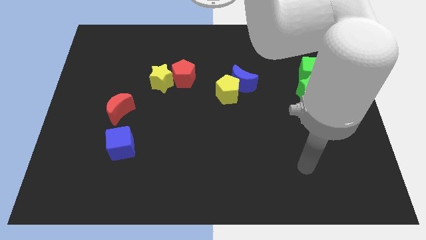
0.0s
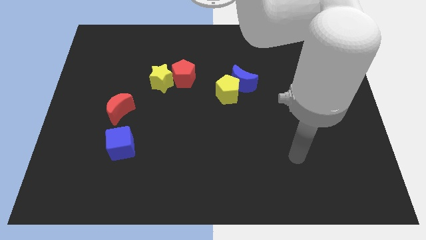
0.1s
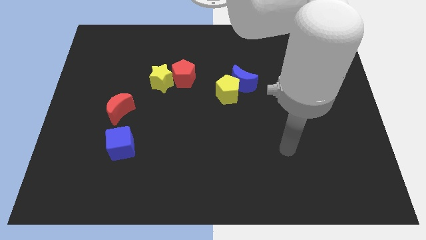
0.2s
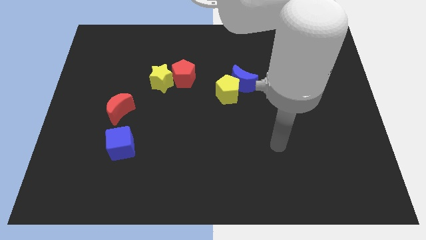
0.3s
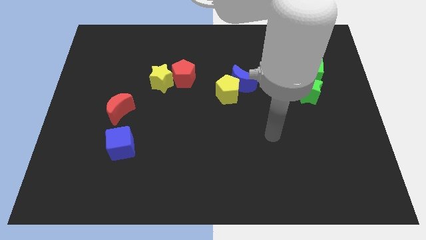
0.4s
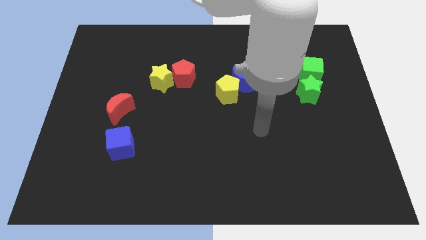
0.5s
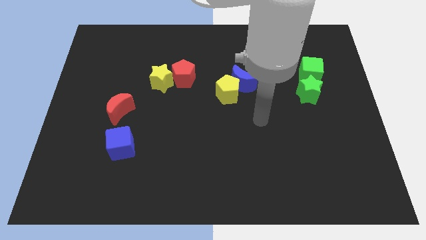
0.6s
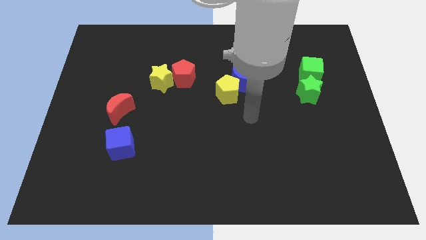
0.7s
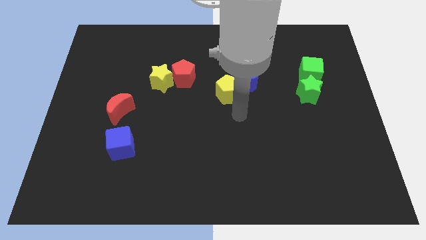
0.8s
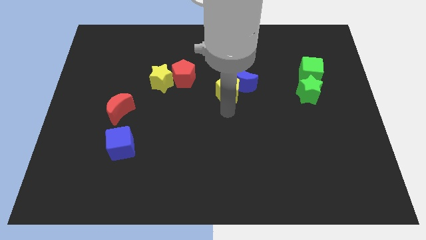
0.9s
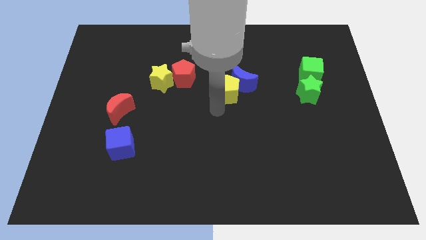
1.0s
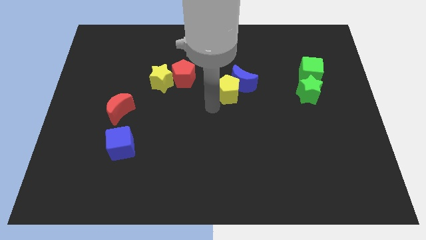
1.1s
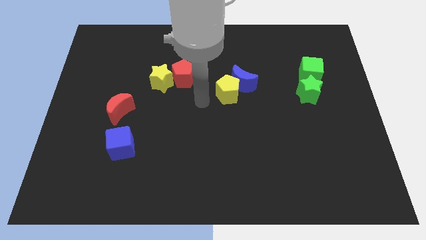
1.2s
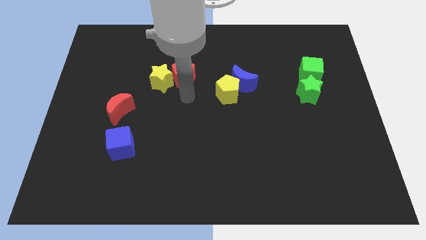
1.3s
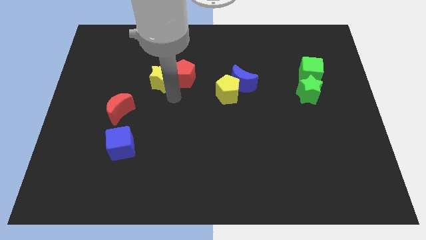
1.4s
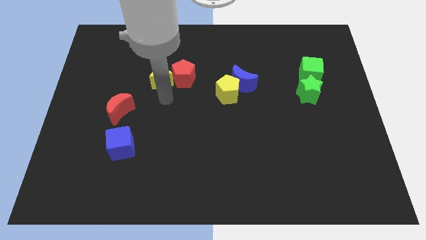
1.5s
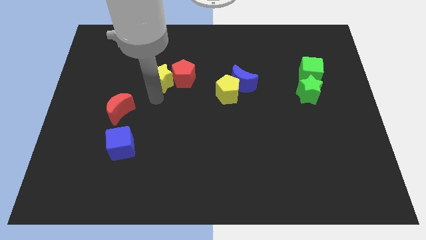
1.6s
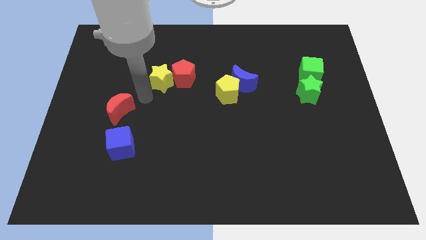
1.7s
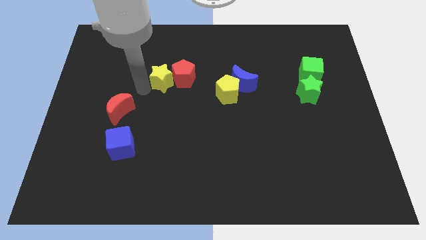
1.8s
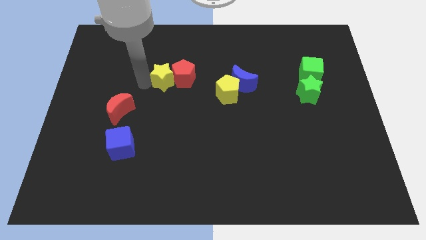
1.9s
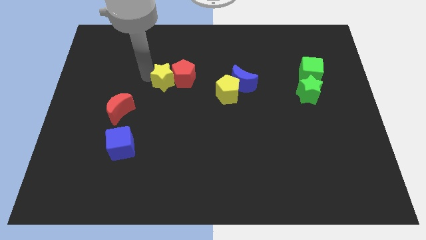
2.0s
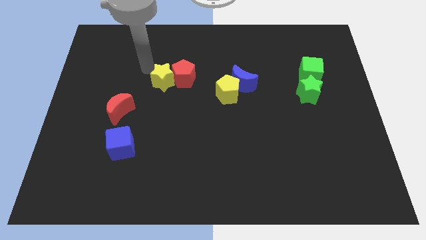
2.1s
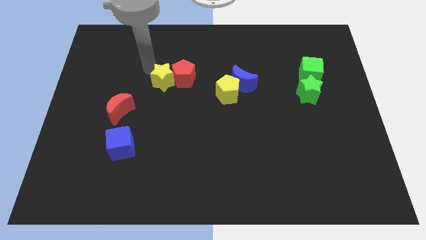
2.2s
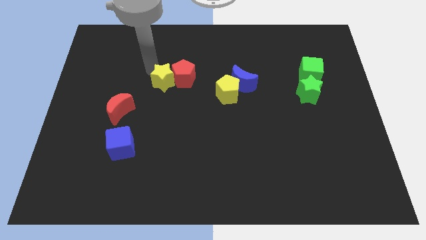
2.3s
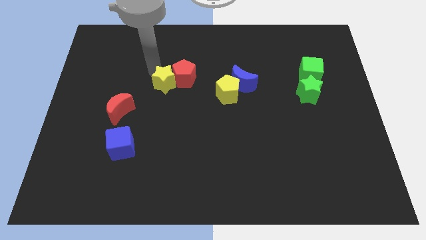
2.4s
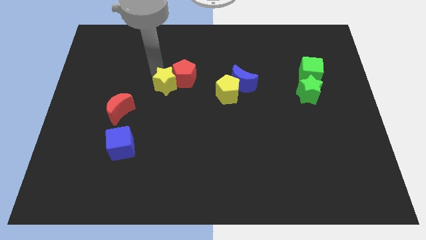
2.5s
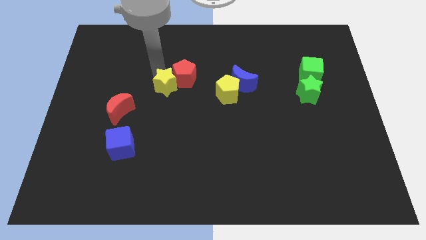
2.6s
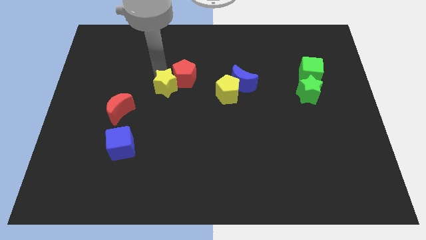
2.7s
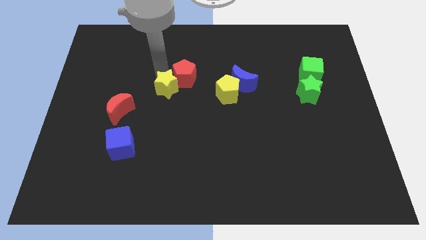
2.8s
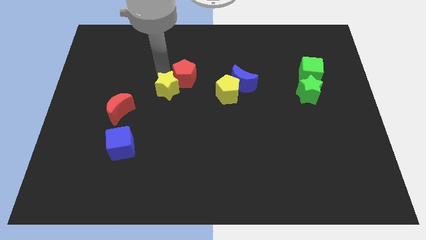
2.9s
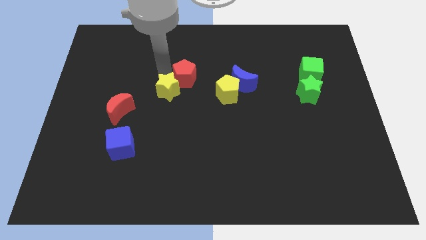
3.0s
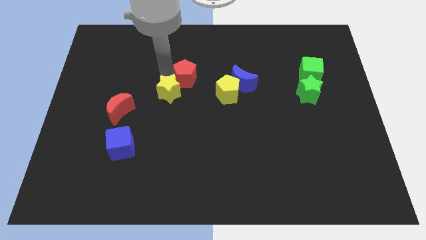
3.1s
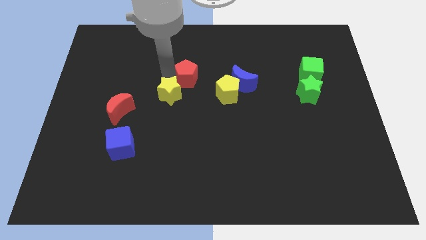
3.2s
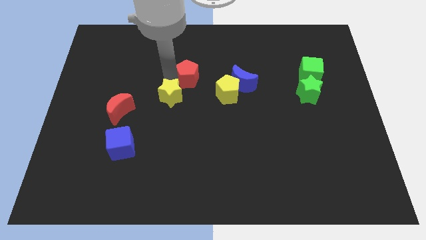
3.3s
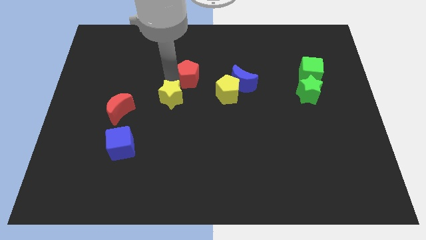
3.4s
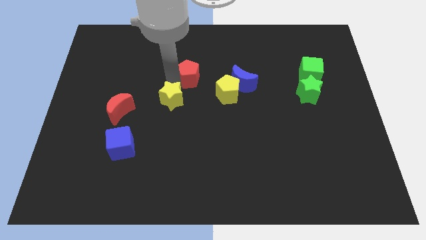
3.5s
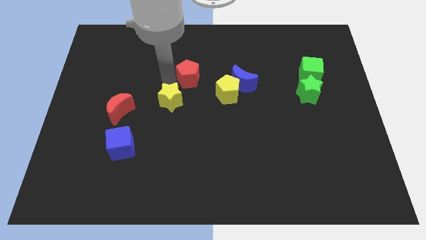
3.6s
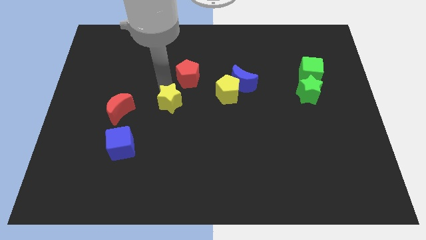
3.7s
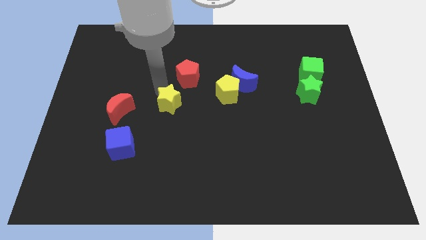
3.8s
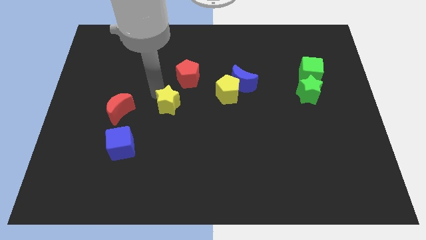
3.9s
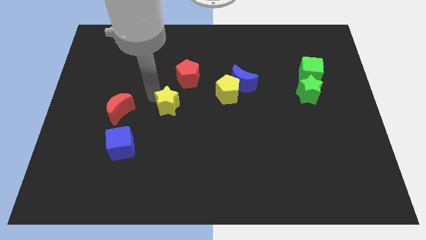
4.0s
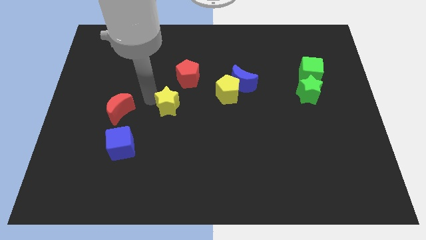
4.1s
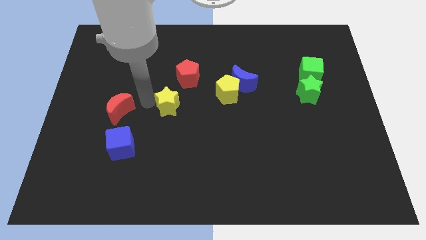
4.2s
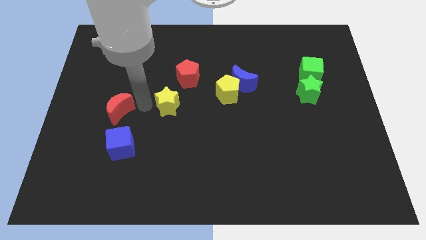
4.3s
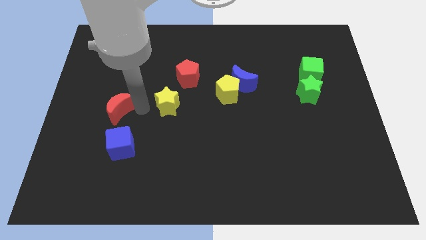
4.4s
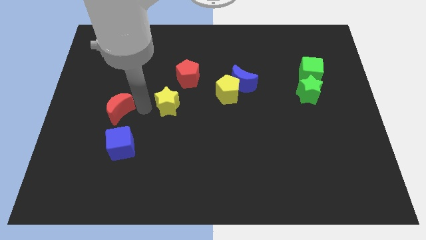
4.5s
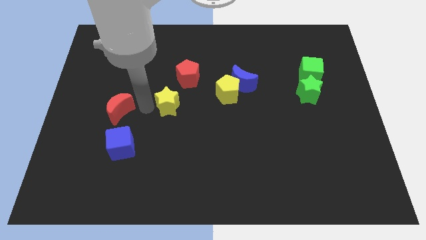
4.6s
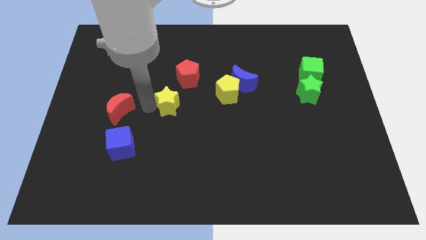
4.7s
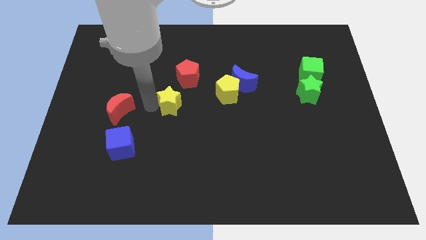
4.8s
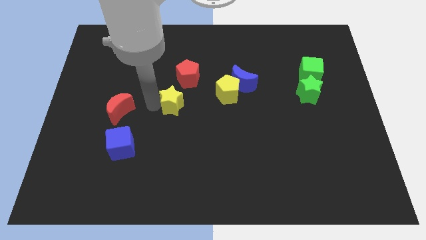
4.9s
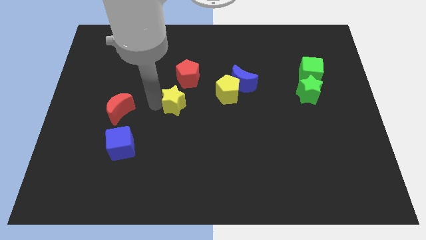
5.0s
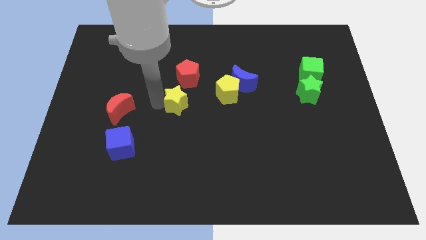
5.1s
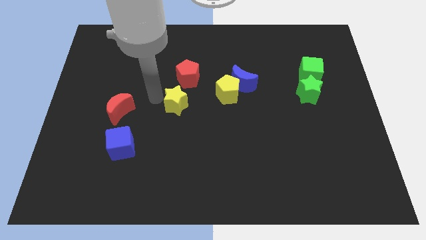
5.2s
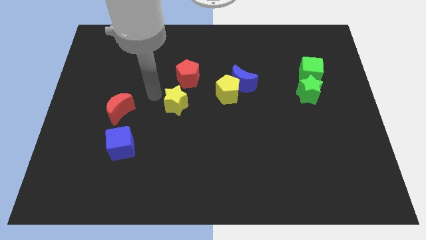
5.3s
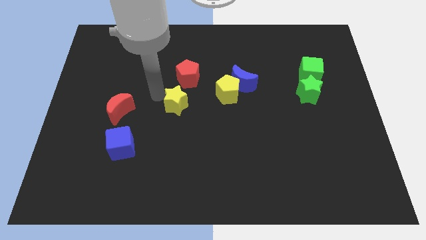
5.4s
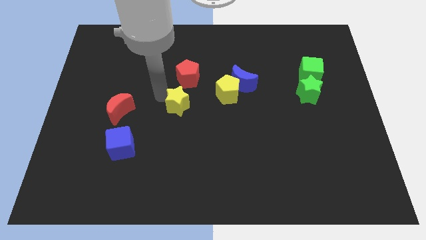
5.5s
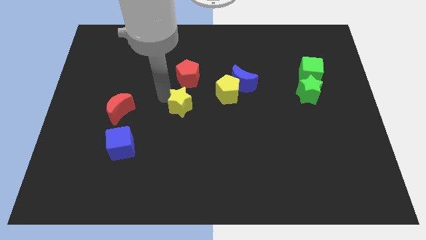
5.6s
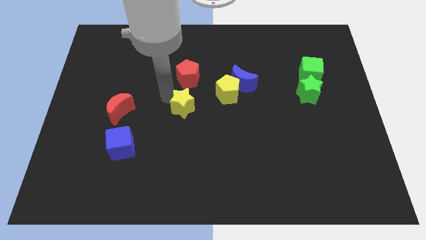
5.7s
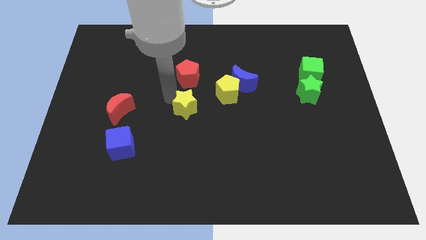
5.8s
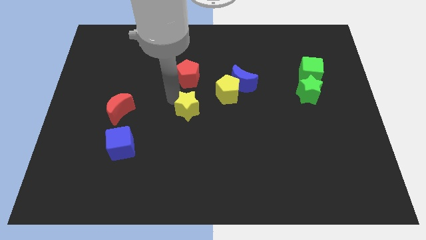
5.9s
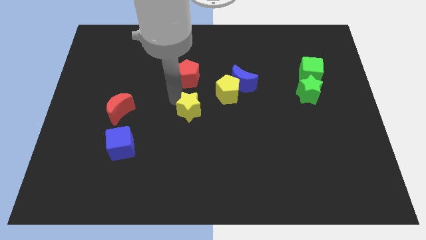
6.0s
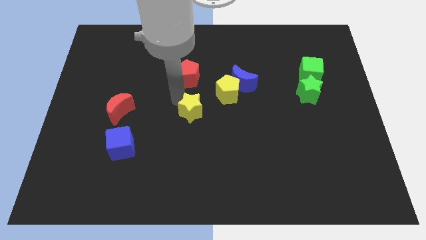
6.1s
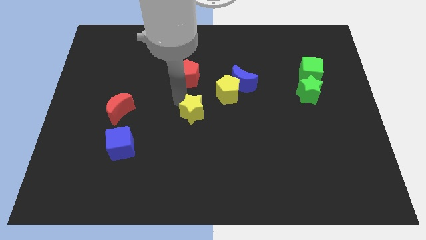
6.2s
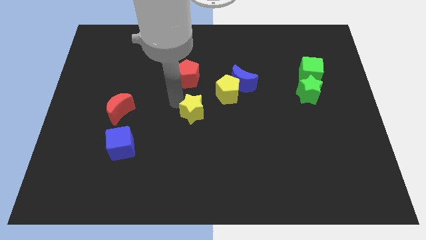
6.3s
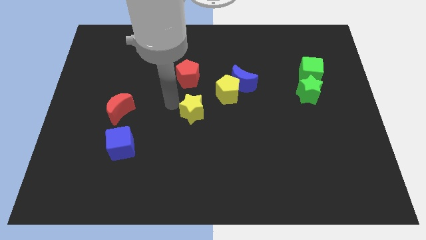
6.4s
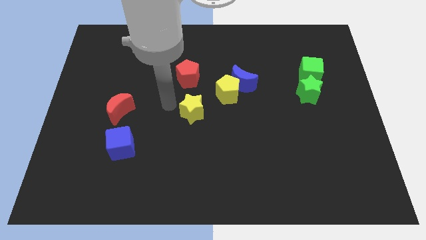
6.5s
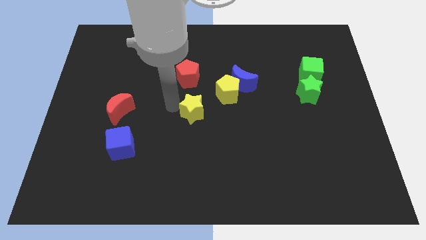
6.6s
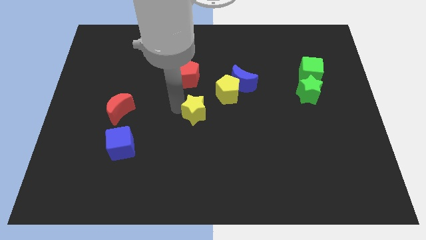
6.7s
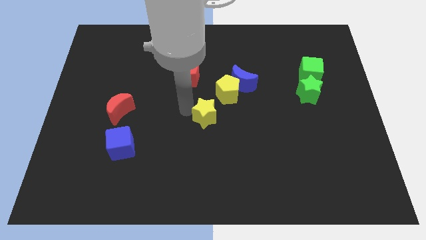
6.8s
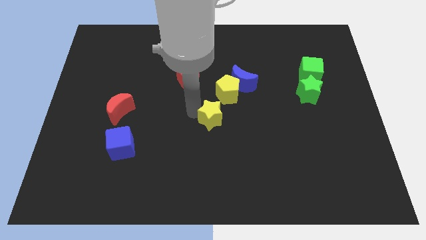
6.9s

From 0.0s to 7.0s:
move the yellow star to the bottom side of the yellow pentagon
